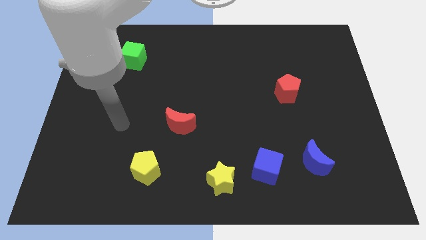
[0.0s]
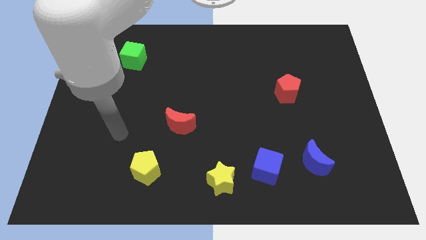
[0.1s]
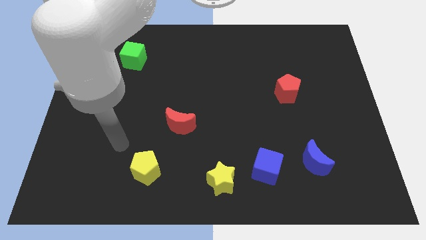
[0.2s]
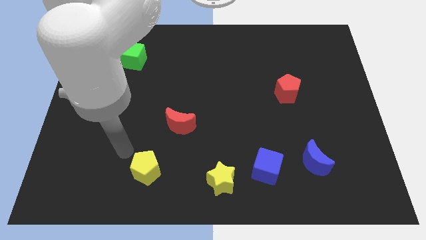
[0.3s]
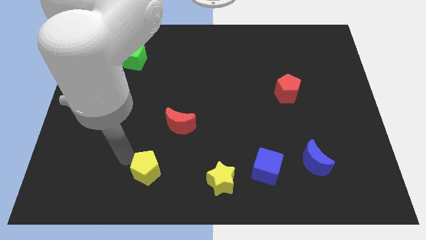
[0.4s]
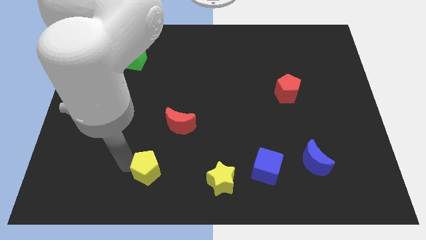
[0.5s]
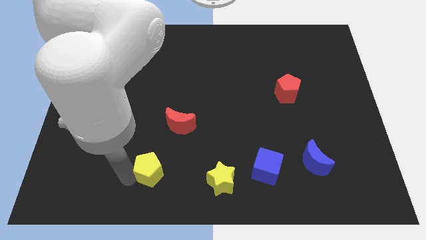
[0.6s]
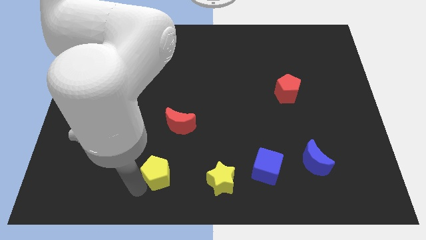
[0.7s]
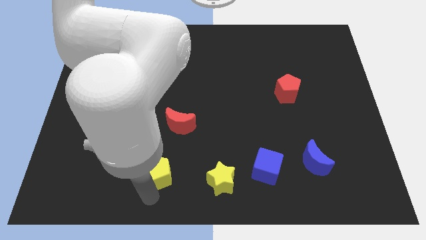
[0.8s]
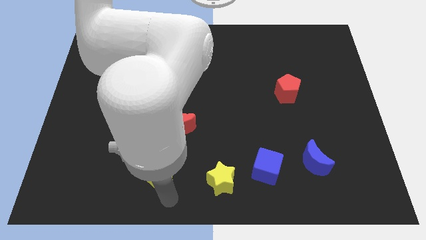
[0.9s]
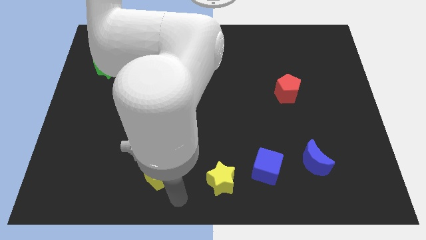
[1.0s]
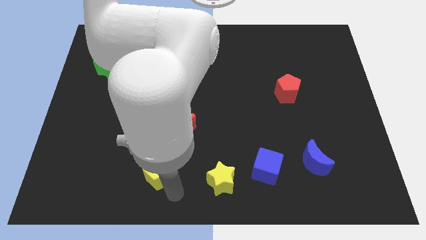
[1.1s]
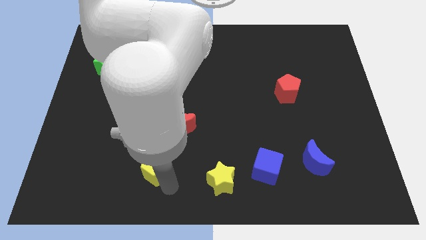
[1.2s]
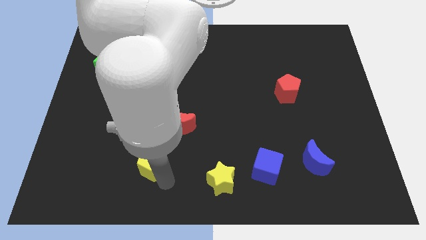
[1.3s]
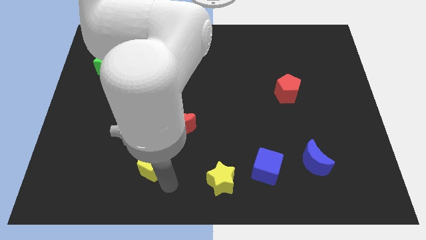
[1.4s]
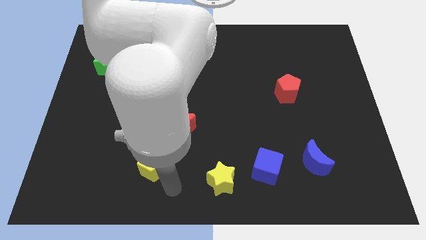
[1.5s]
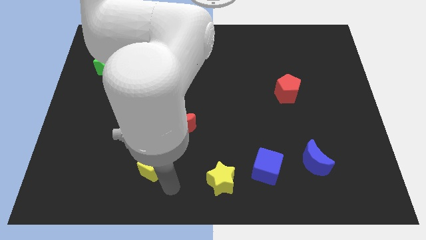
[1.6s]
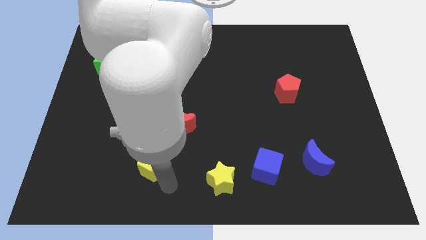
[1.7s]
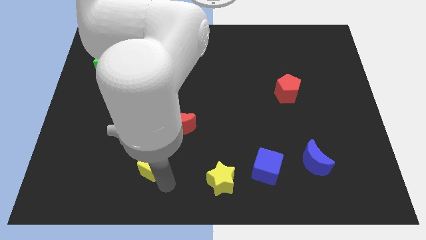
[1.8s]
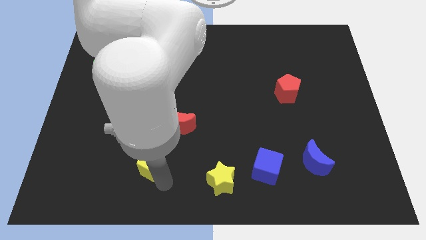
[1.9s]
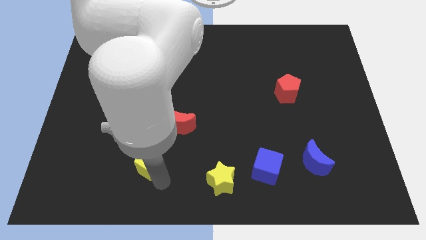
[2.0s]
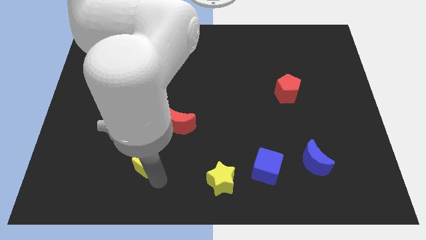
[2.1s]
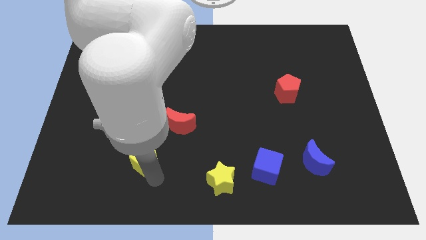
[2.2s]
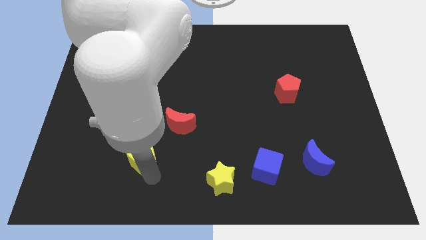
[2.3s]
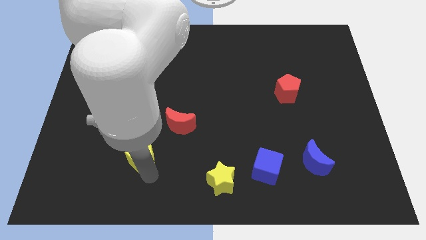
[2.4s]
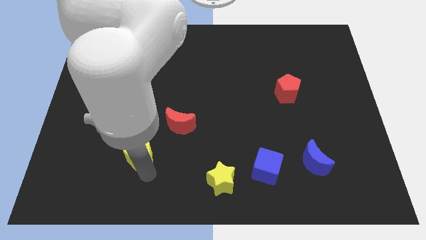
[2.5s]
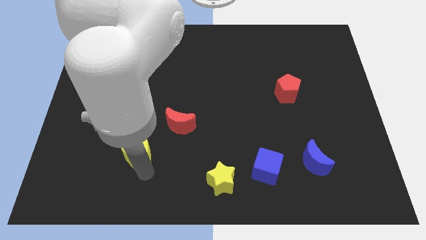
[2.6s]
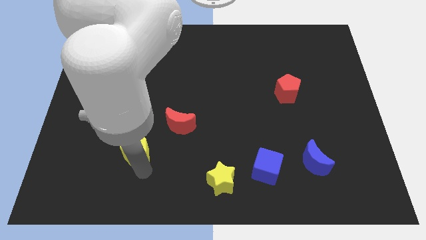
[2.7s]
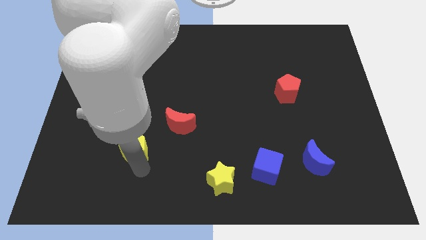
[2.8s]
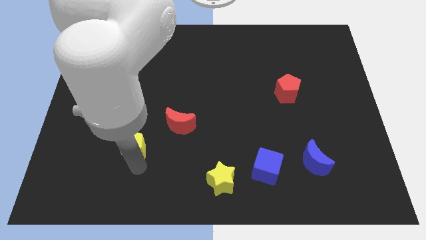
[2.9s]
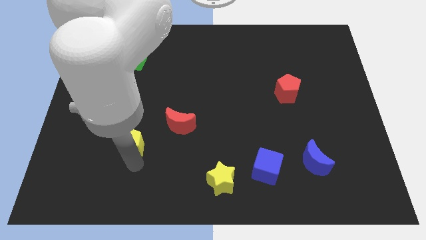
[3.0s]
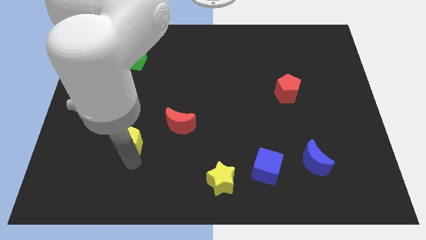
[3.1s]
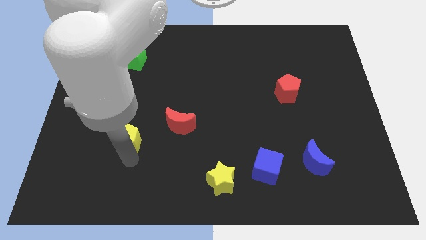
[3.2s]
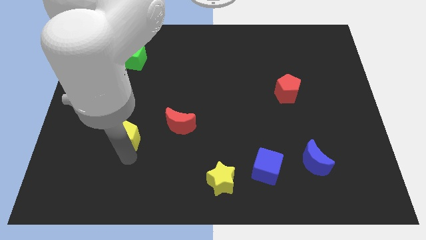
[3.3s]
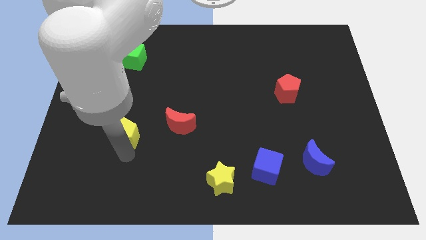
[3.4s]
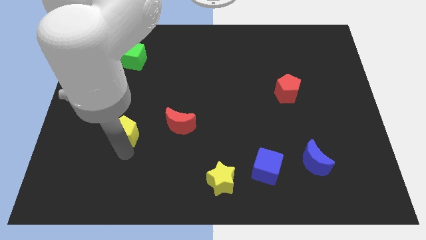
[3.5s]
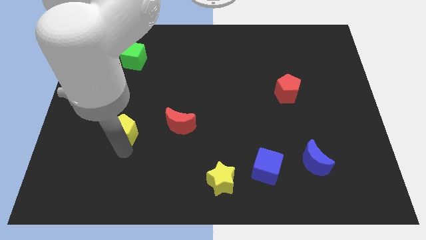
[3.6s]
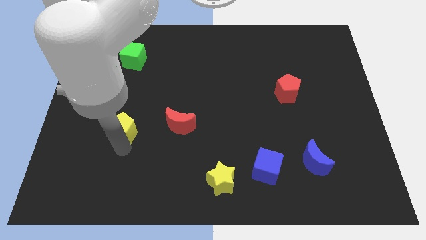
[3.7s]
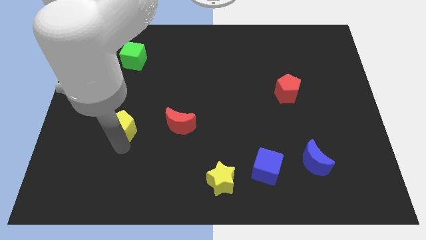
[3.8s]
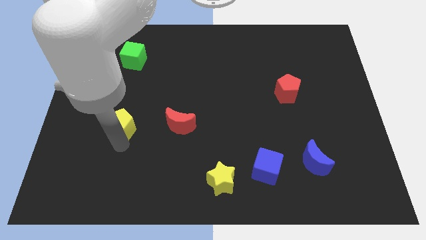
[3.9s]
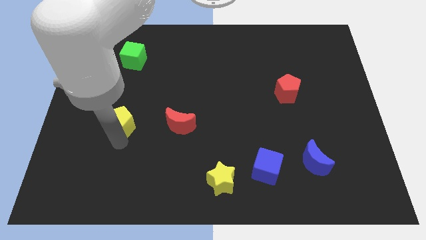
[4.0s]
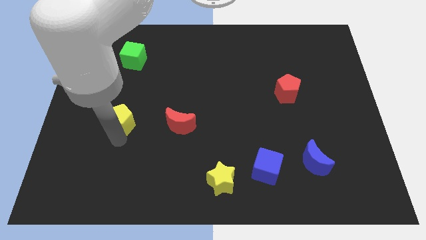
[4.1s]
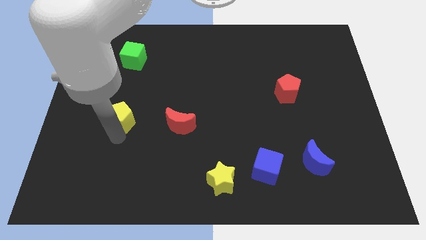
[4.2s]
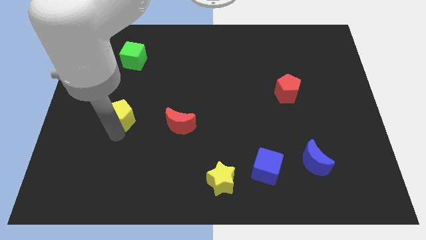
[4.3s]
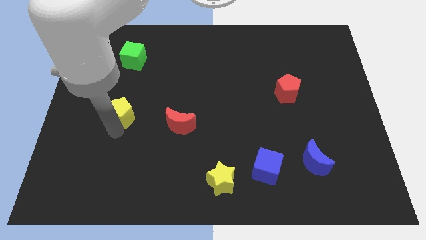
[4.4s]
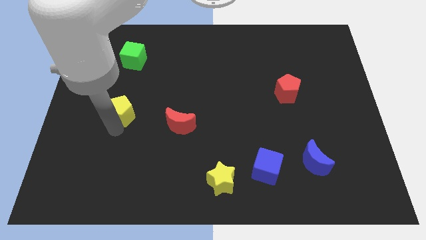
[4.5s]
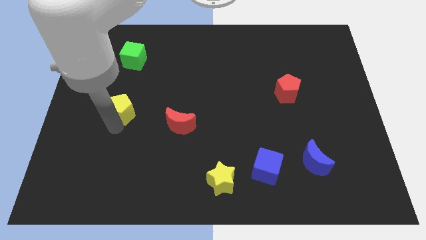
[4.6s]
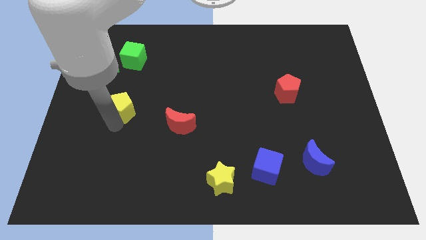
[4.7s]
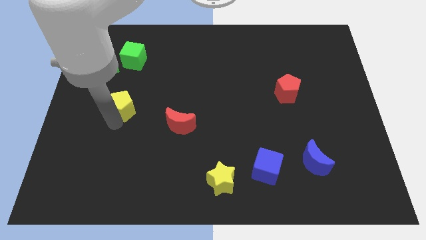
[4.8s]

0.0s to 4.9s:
put the yellow pentagon to the bottom side of the green cube

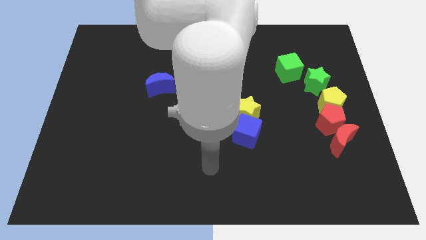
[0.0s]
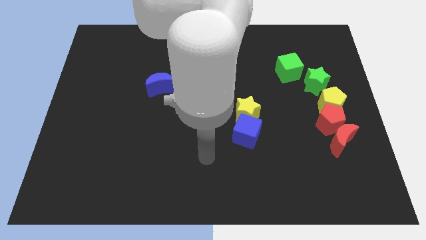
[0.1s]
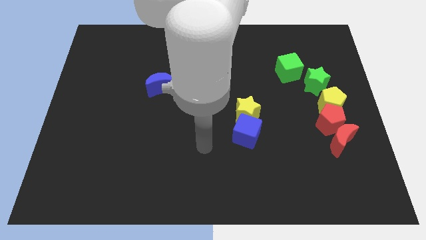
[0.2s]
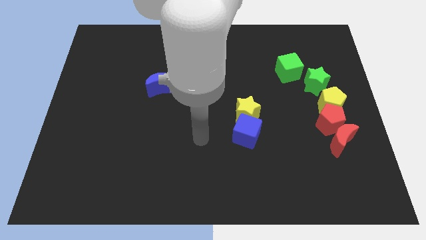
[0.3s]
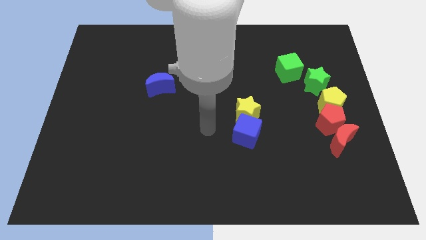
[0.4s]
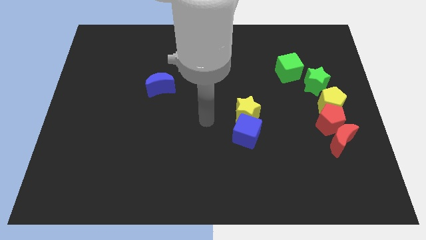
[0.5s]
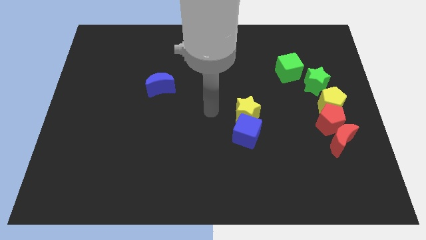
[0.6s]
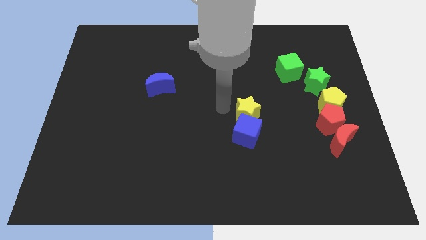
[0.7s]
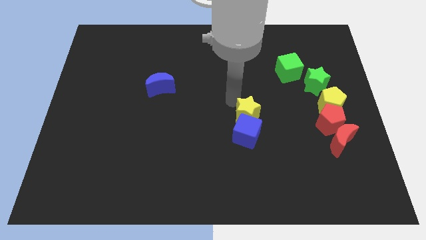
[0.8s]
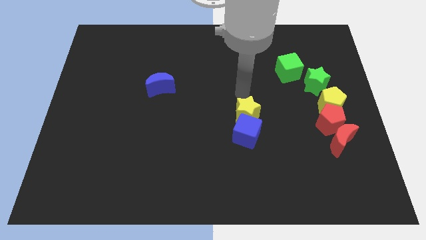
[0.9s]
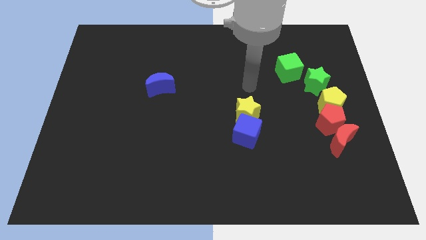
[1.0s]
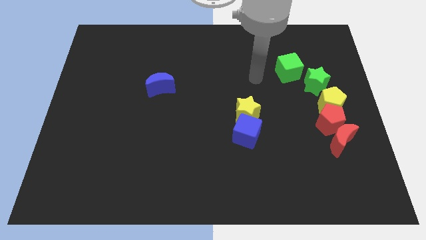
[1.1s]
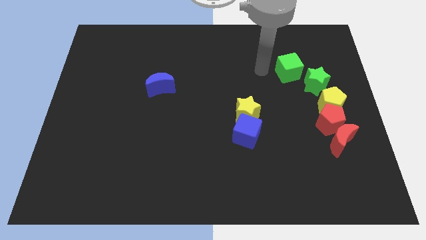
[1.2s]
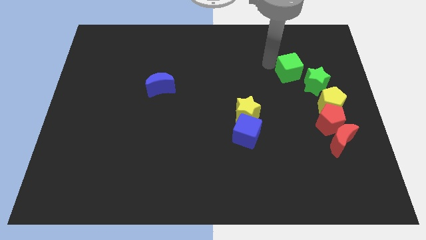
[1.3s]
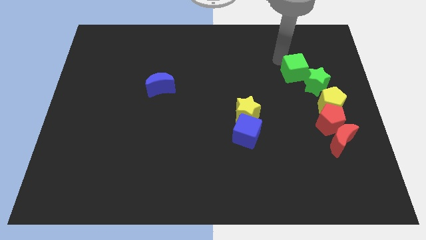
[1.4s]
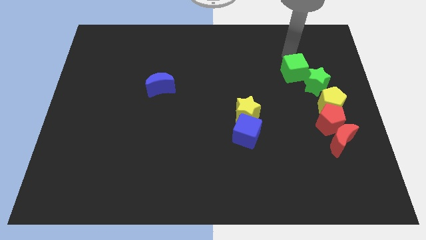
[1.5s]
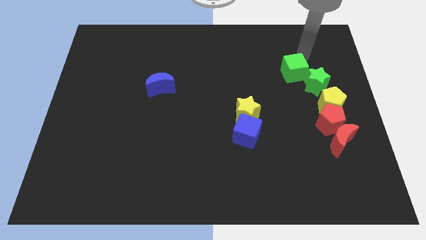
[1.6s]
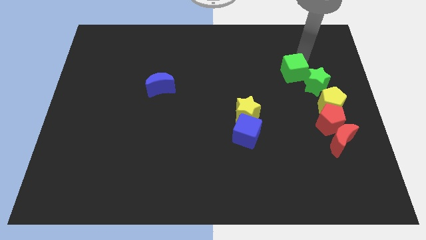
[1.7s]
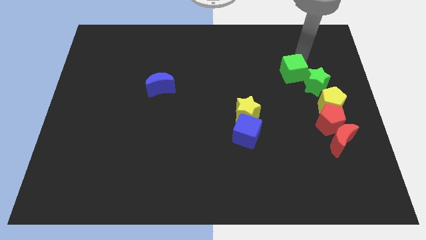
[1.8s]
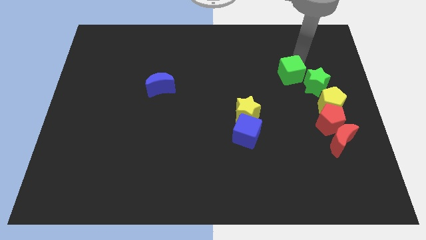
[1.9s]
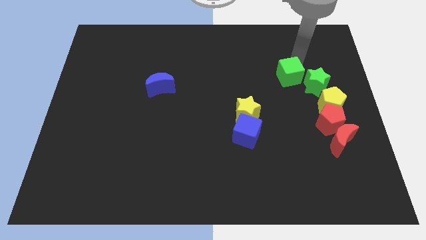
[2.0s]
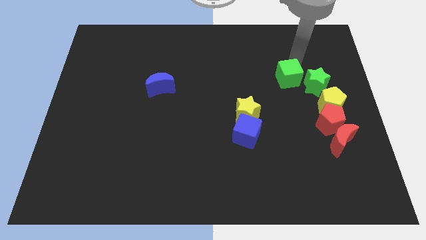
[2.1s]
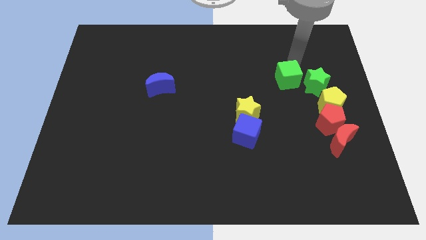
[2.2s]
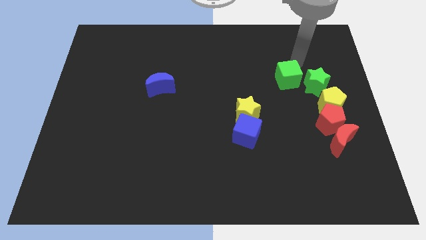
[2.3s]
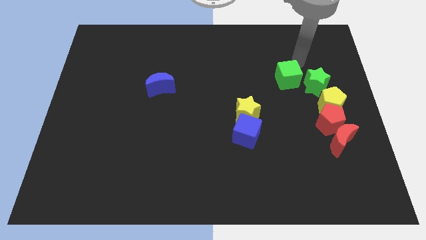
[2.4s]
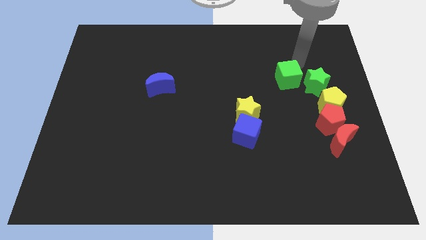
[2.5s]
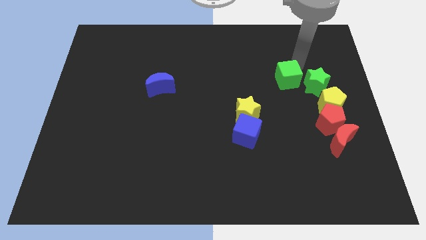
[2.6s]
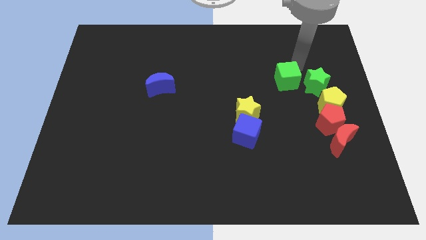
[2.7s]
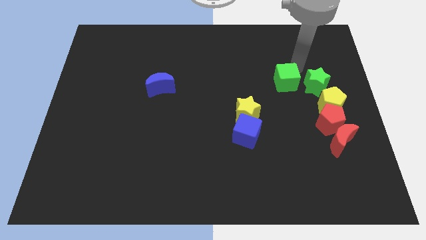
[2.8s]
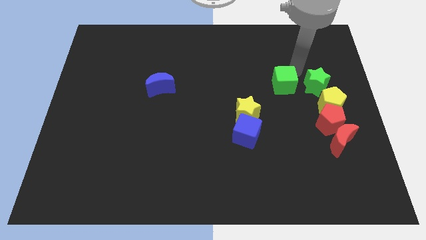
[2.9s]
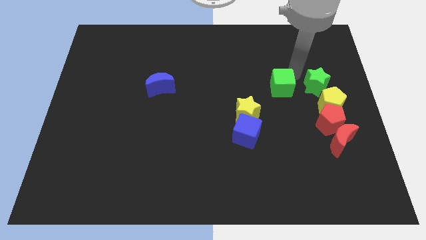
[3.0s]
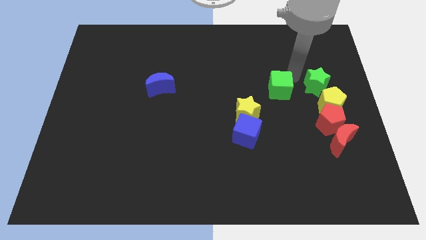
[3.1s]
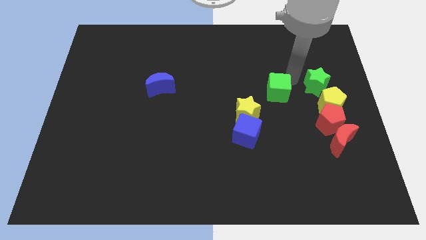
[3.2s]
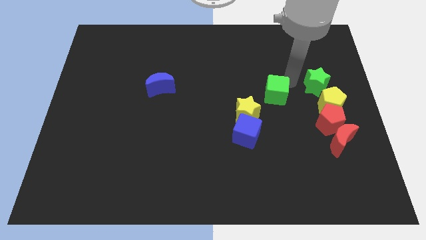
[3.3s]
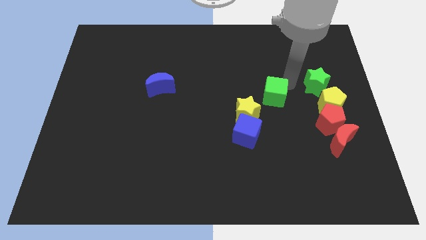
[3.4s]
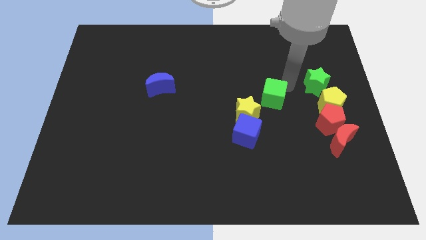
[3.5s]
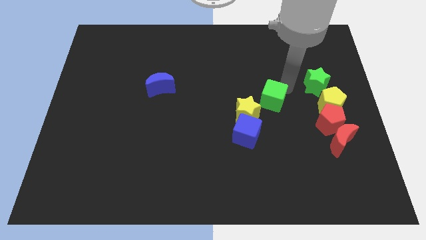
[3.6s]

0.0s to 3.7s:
move the green cube diagonally up and to the right of the blue cube
